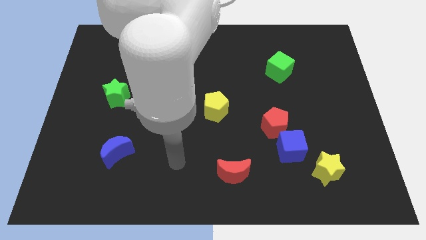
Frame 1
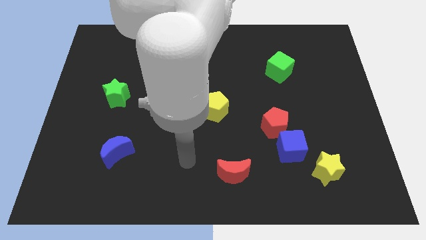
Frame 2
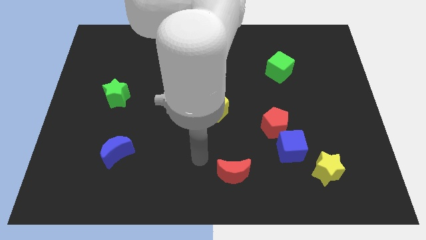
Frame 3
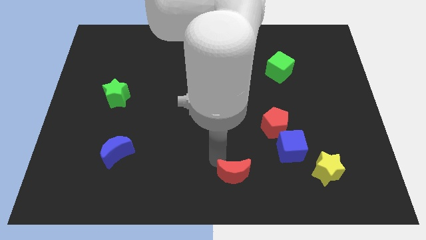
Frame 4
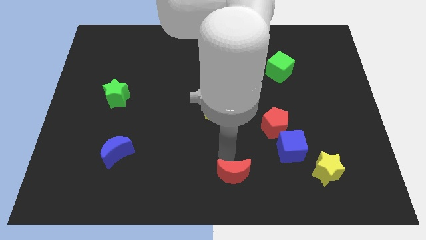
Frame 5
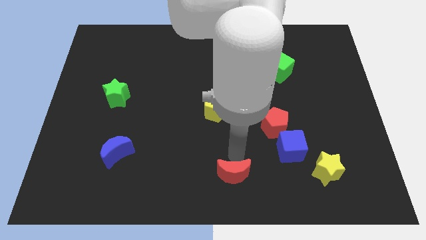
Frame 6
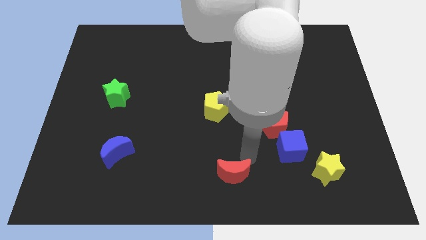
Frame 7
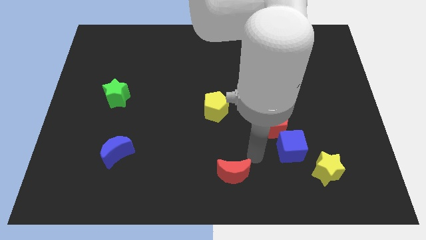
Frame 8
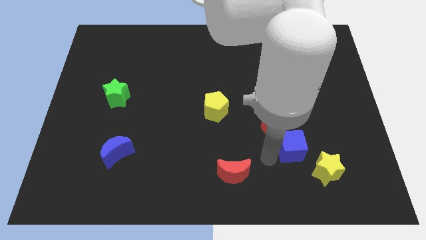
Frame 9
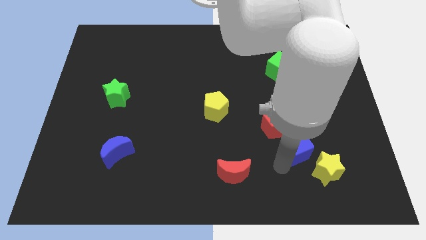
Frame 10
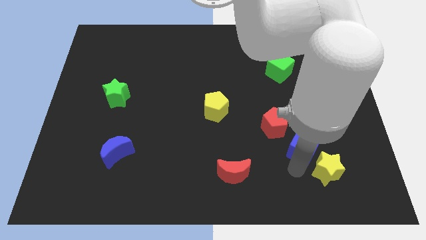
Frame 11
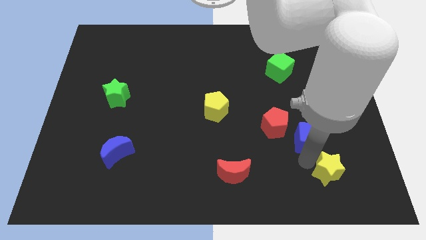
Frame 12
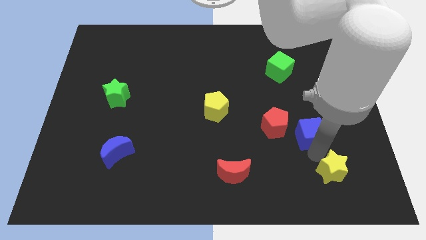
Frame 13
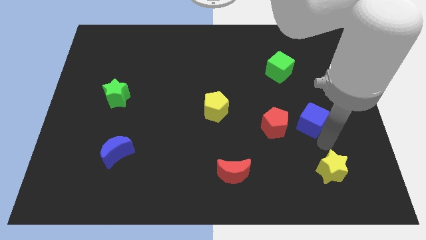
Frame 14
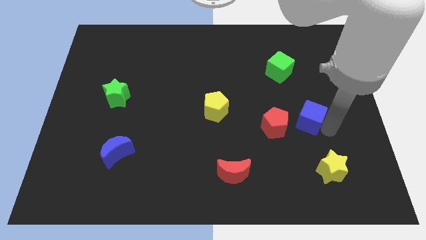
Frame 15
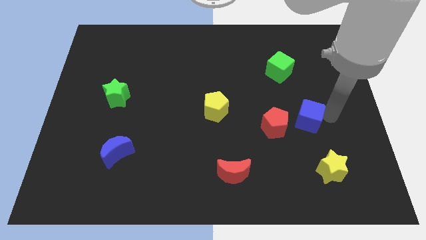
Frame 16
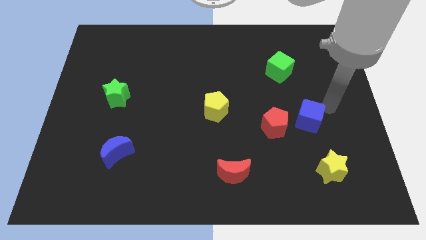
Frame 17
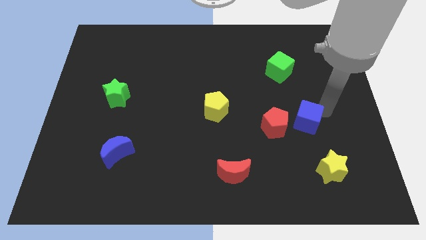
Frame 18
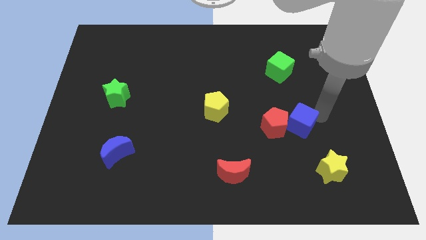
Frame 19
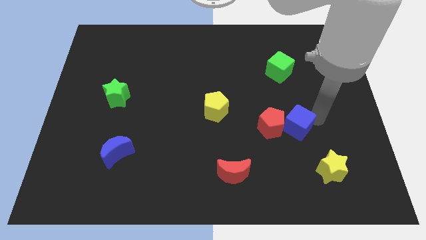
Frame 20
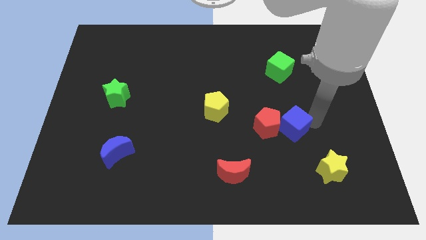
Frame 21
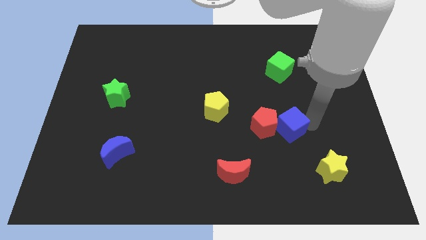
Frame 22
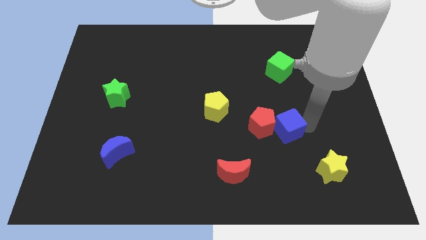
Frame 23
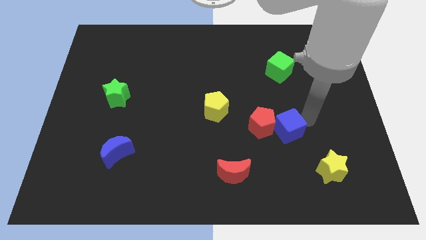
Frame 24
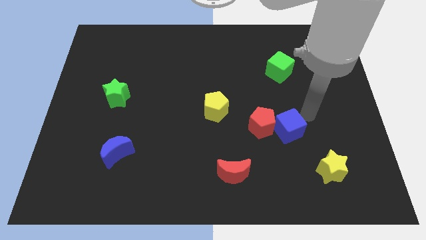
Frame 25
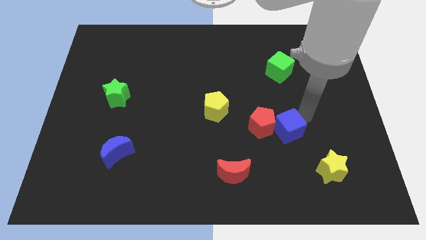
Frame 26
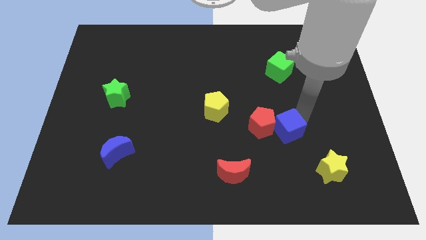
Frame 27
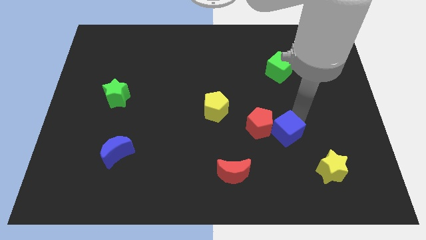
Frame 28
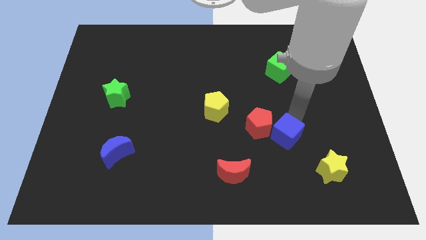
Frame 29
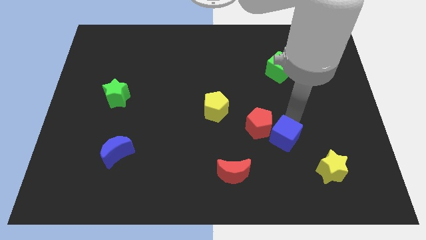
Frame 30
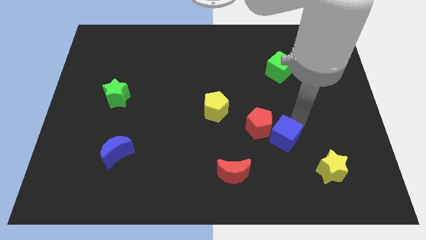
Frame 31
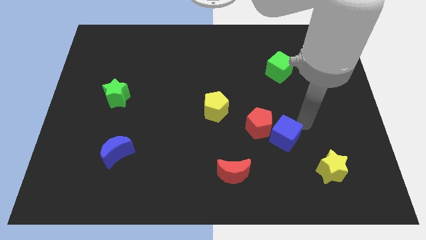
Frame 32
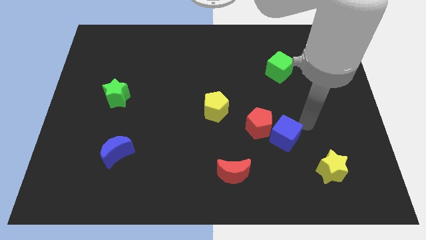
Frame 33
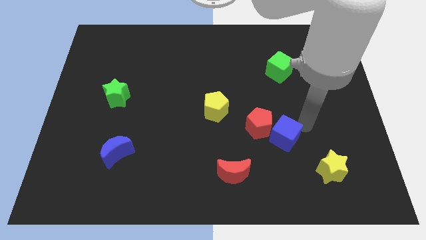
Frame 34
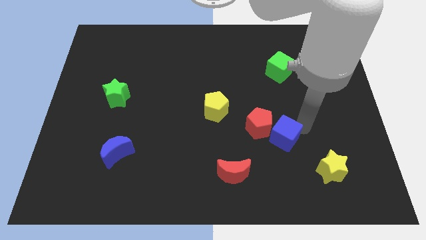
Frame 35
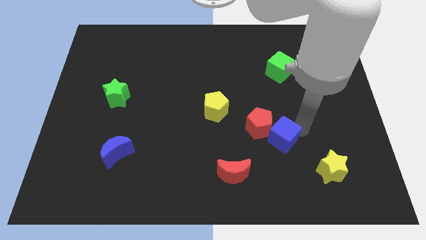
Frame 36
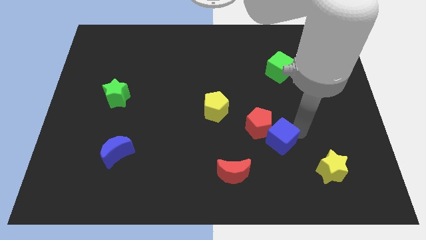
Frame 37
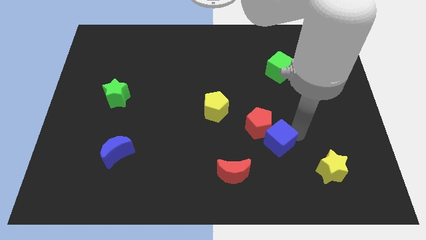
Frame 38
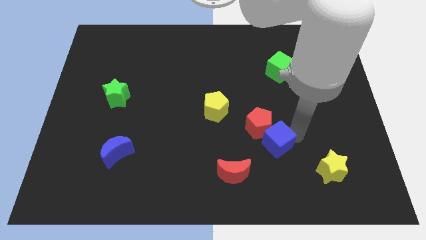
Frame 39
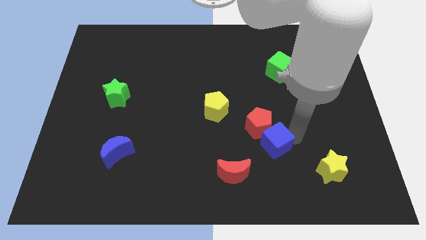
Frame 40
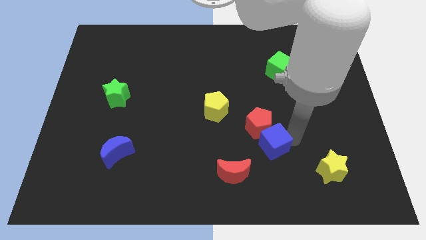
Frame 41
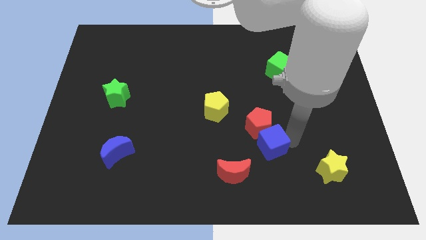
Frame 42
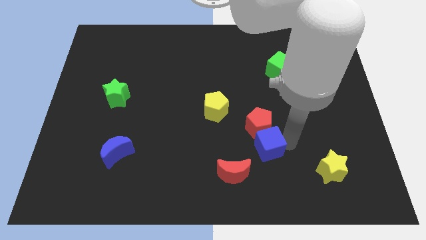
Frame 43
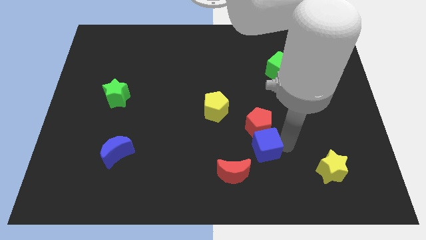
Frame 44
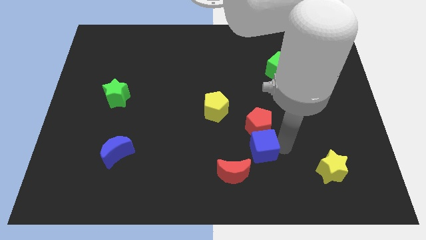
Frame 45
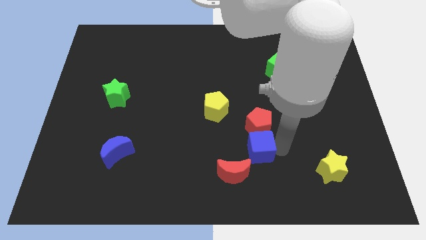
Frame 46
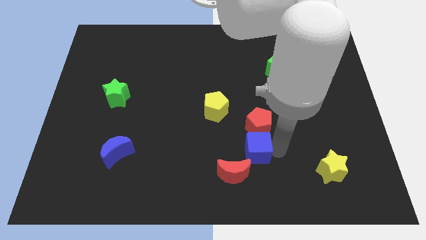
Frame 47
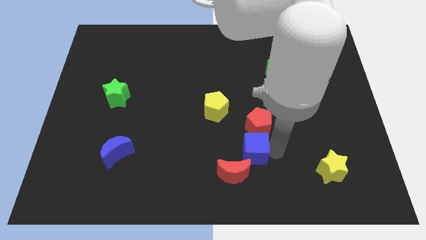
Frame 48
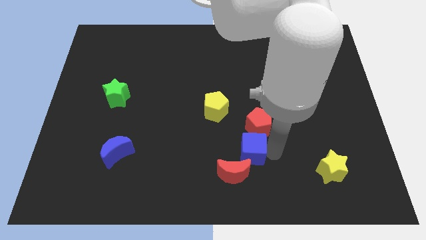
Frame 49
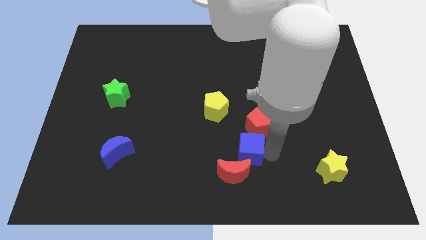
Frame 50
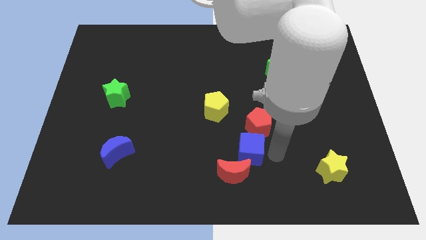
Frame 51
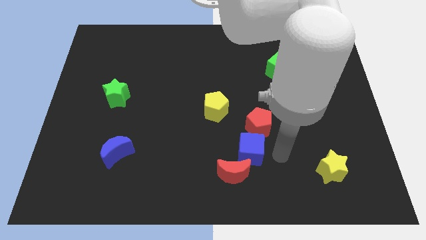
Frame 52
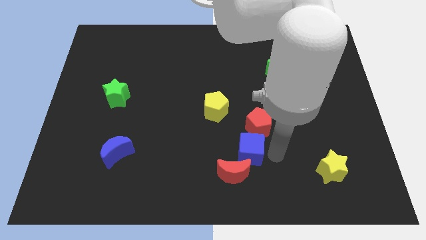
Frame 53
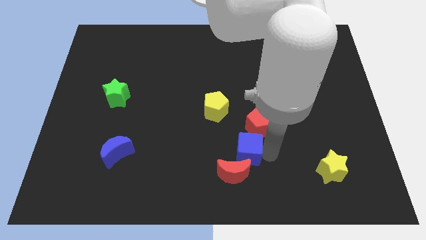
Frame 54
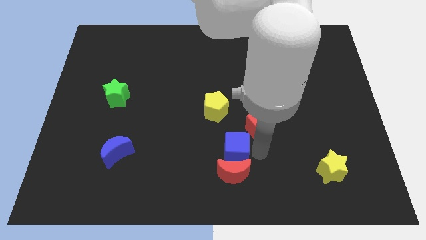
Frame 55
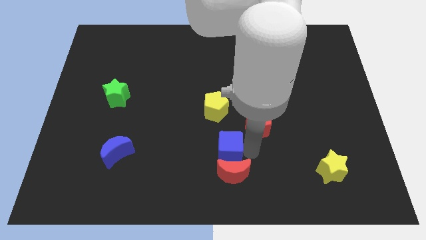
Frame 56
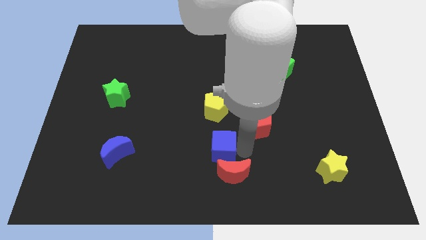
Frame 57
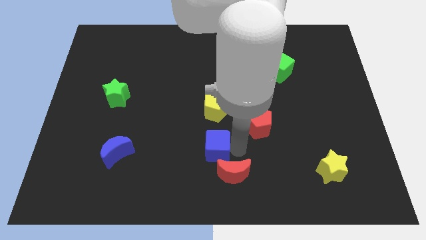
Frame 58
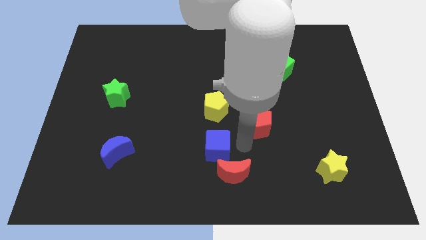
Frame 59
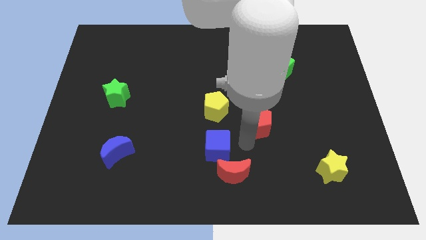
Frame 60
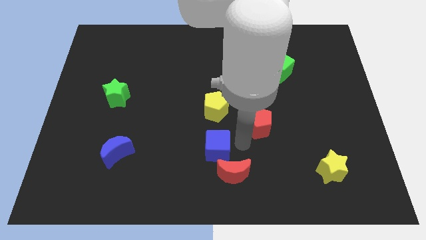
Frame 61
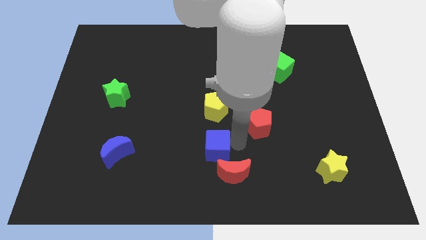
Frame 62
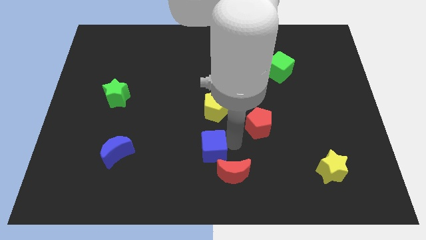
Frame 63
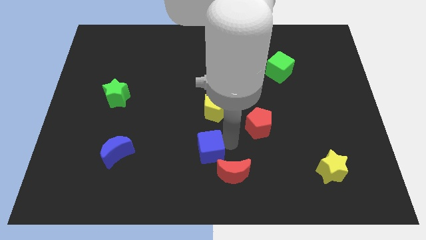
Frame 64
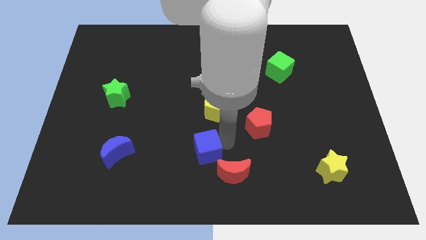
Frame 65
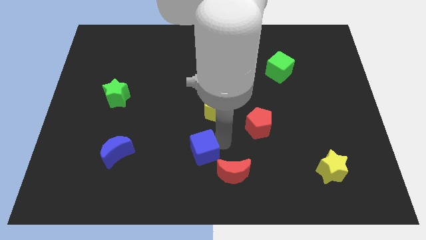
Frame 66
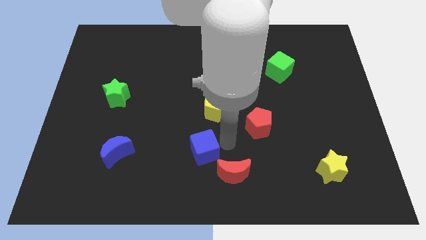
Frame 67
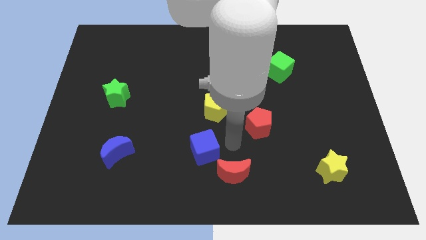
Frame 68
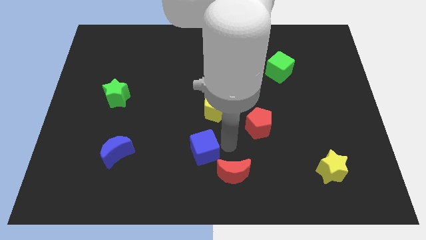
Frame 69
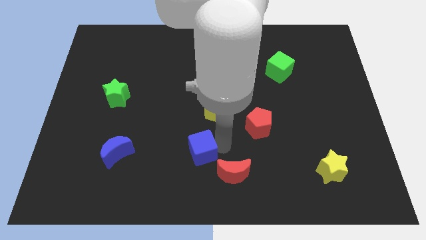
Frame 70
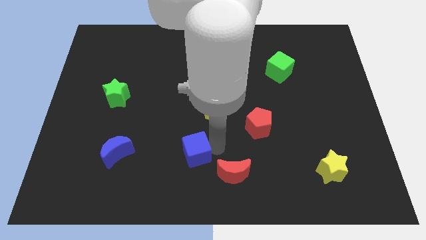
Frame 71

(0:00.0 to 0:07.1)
move the blue cube left

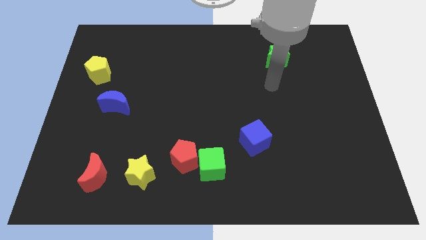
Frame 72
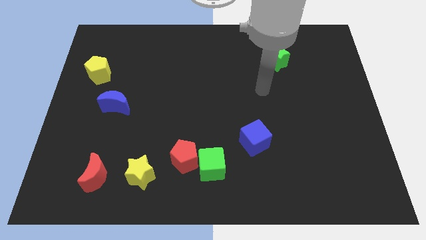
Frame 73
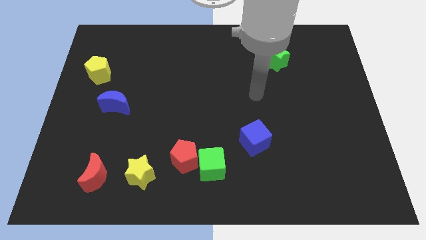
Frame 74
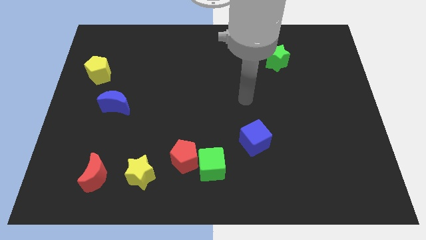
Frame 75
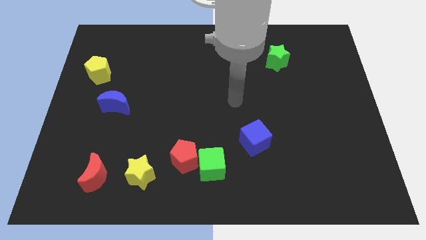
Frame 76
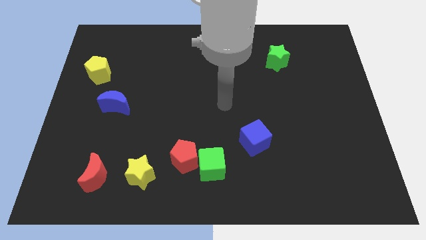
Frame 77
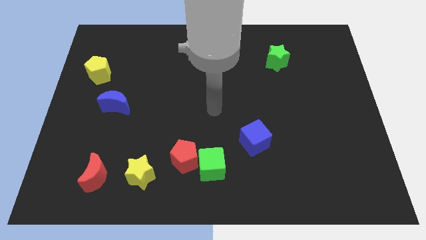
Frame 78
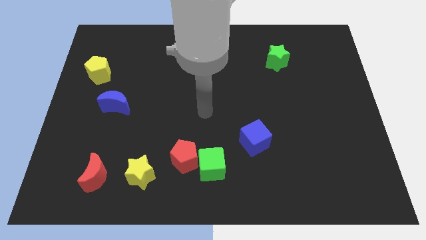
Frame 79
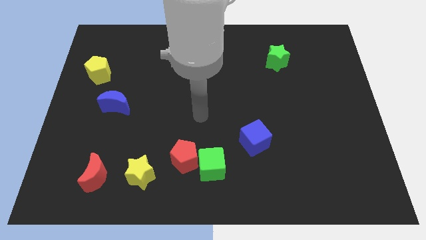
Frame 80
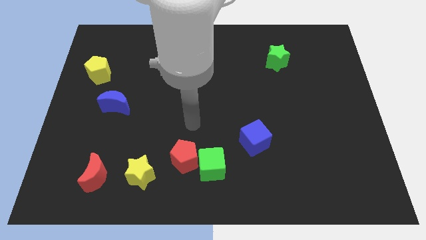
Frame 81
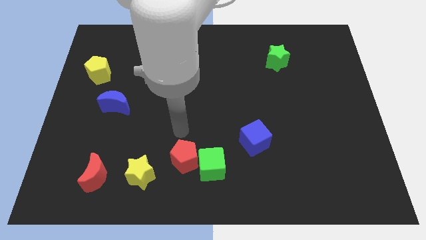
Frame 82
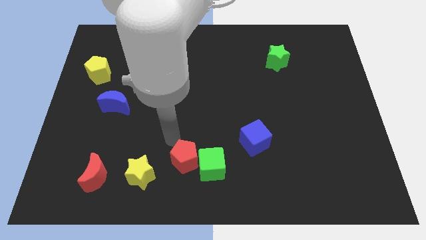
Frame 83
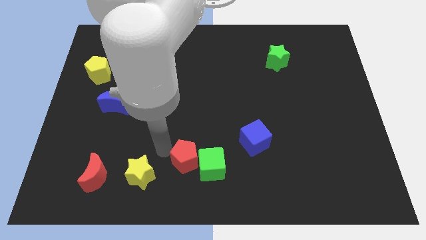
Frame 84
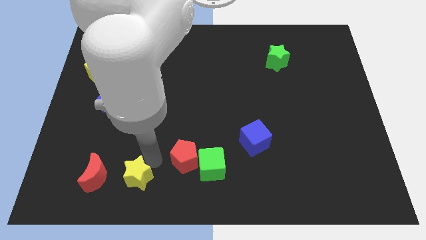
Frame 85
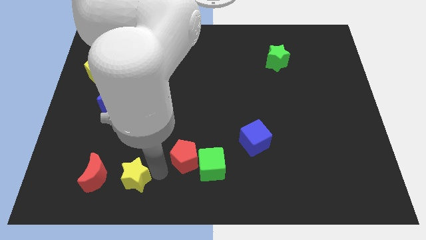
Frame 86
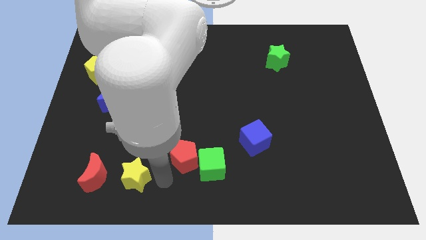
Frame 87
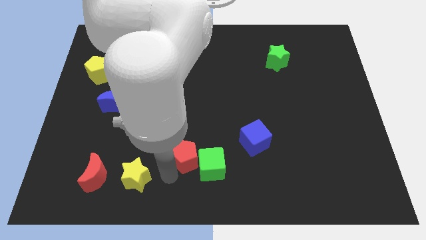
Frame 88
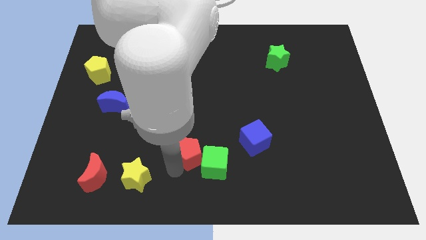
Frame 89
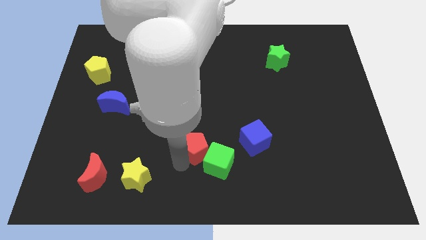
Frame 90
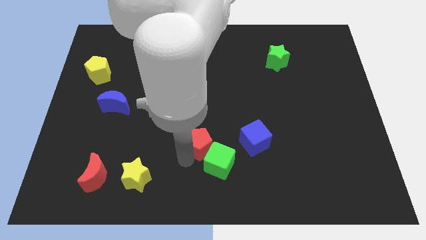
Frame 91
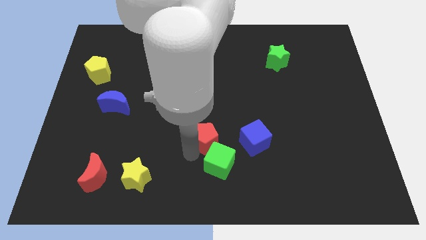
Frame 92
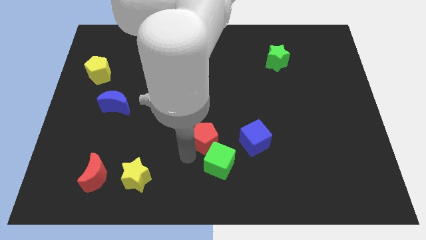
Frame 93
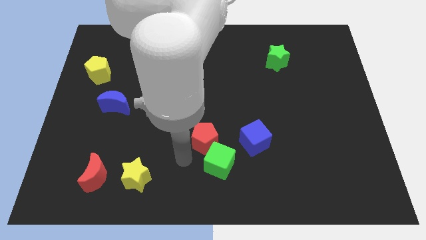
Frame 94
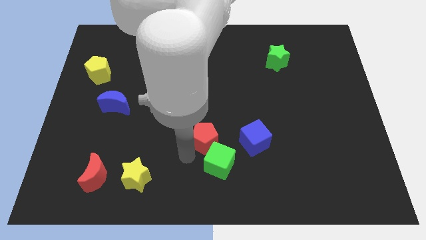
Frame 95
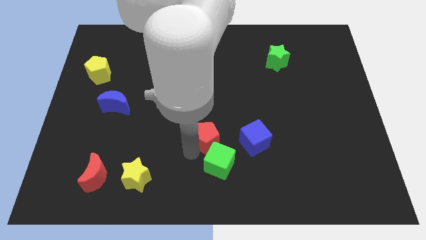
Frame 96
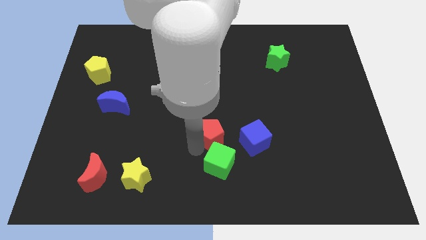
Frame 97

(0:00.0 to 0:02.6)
move the red pentagon up and right a little
